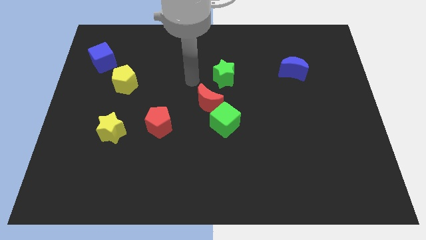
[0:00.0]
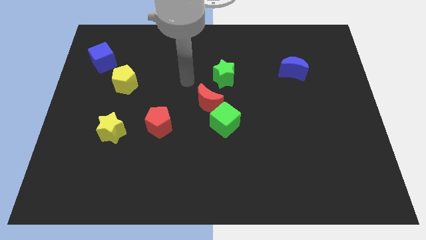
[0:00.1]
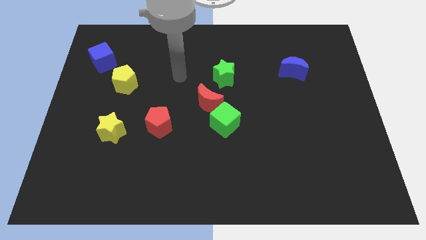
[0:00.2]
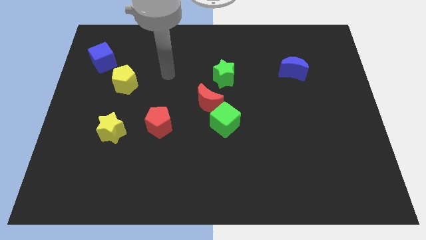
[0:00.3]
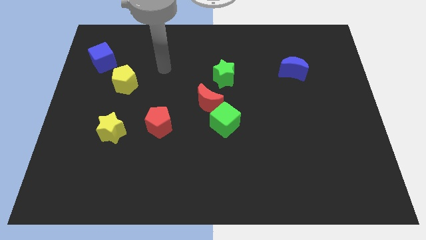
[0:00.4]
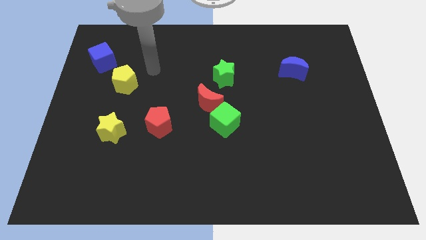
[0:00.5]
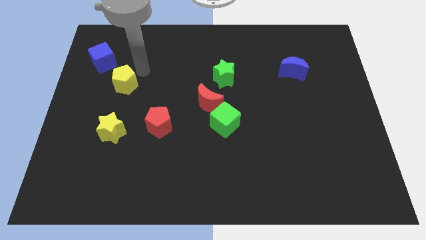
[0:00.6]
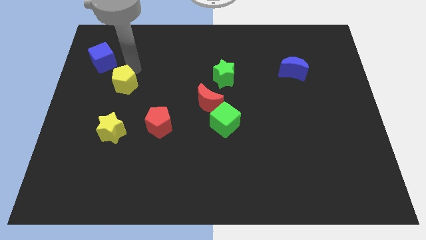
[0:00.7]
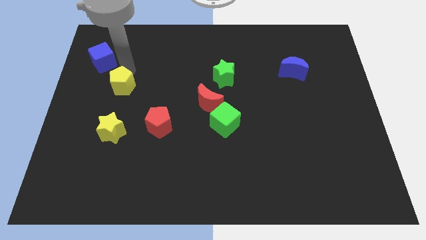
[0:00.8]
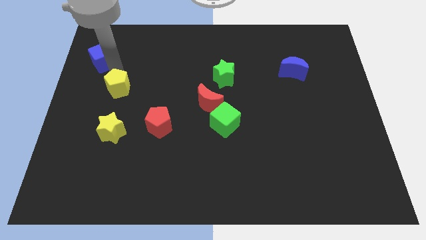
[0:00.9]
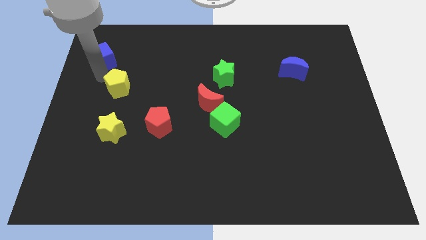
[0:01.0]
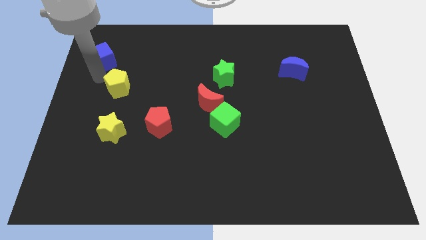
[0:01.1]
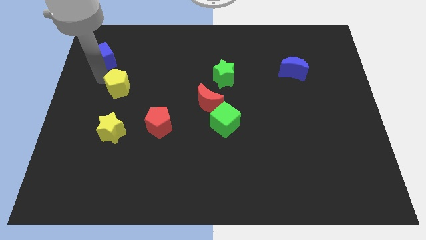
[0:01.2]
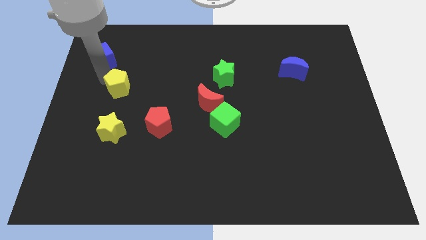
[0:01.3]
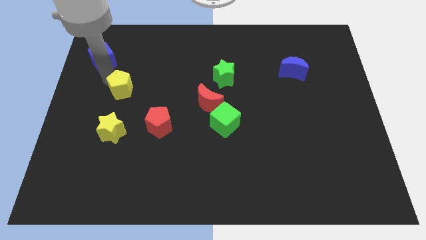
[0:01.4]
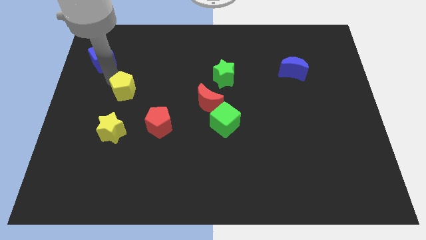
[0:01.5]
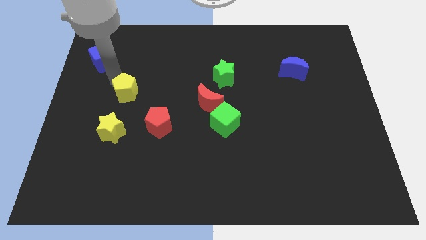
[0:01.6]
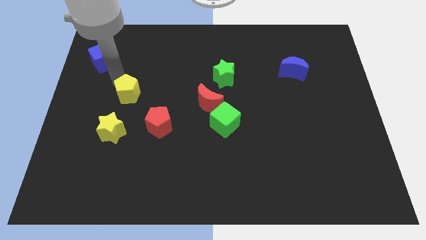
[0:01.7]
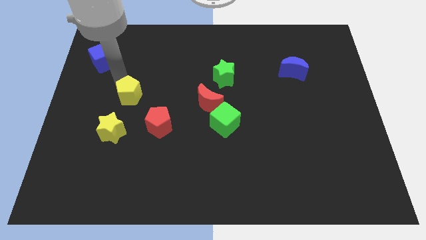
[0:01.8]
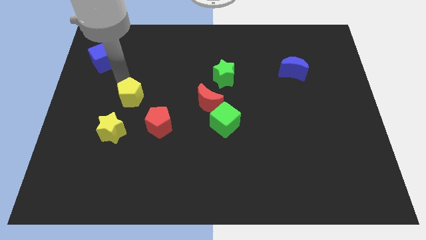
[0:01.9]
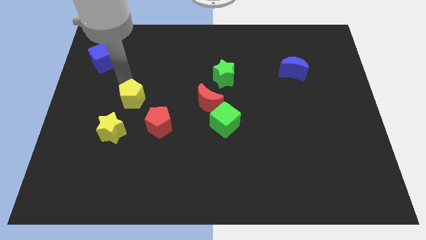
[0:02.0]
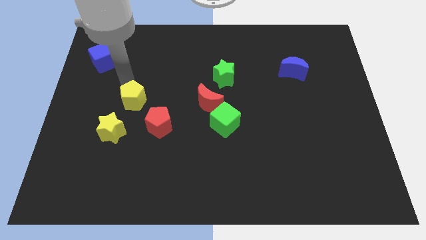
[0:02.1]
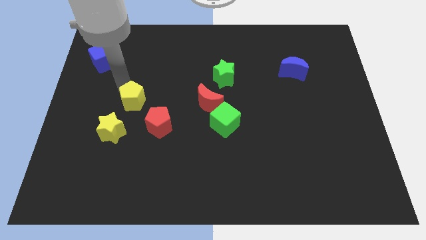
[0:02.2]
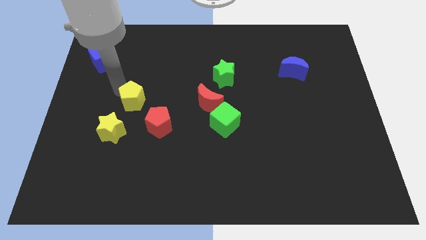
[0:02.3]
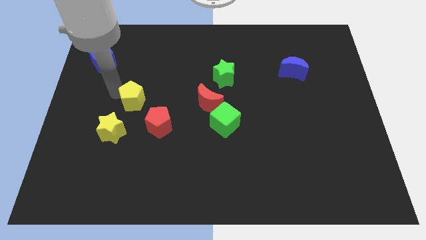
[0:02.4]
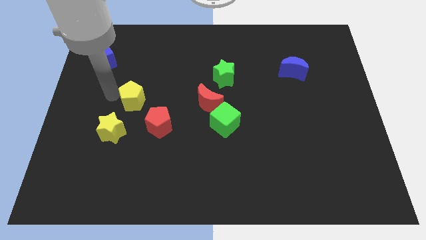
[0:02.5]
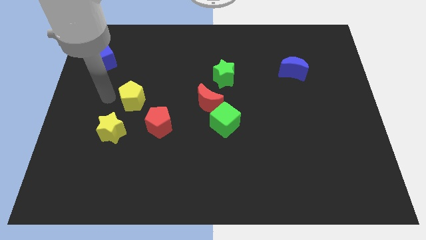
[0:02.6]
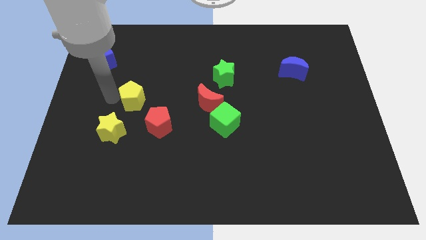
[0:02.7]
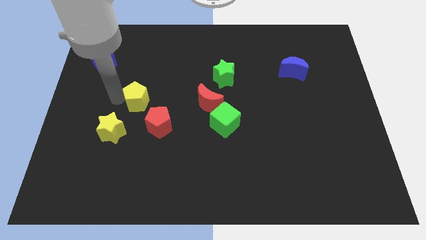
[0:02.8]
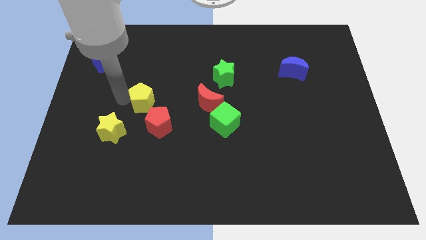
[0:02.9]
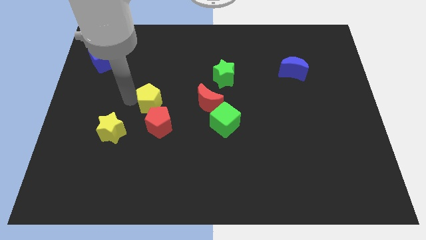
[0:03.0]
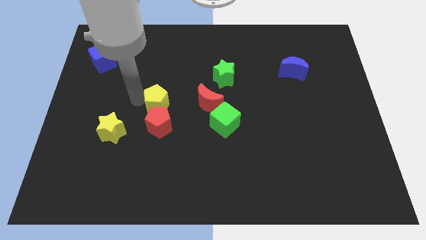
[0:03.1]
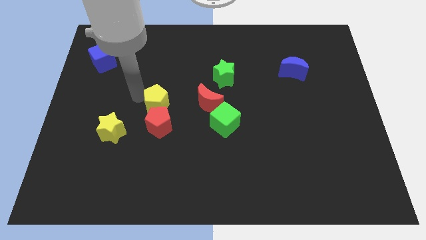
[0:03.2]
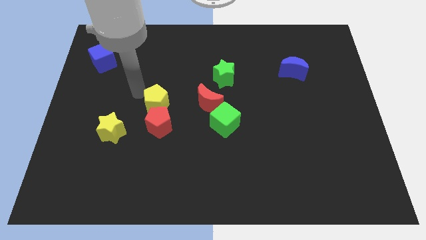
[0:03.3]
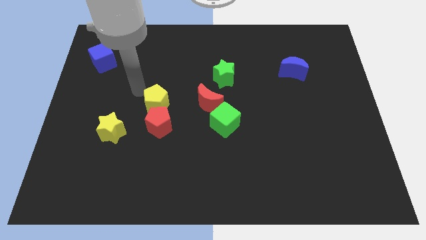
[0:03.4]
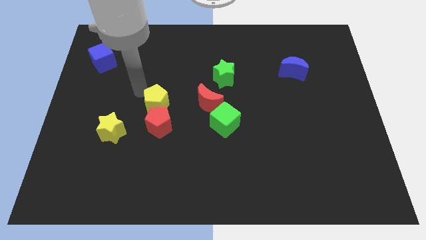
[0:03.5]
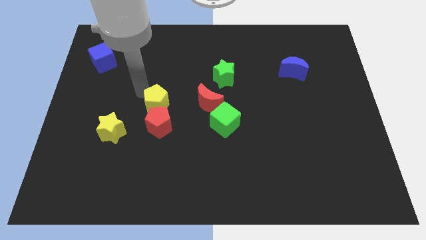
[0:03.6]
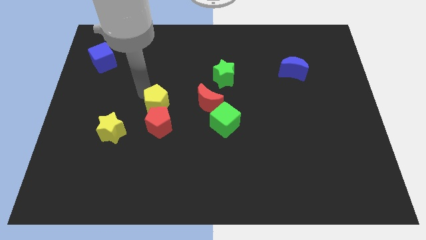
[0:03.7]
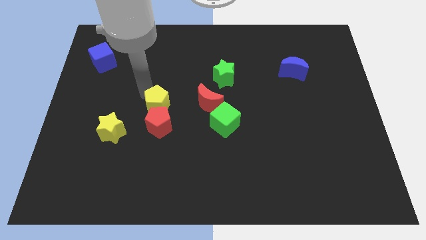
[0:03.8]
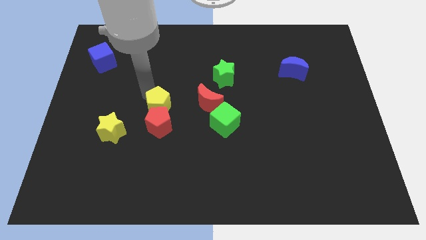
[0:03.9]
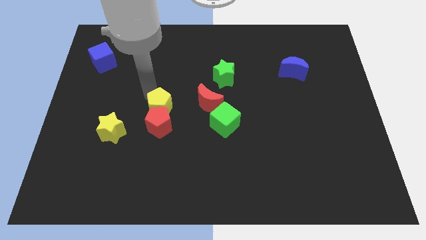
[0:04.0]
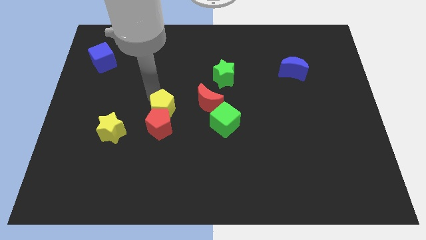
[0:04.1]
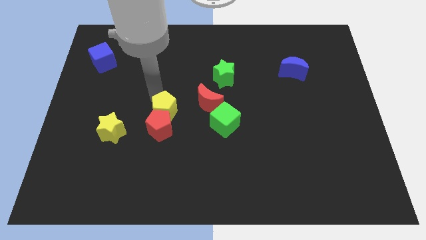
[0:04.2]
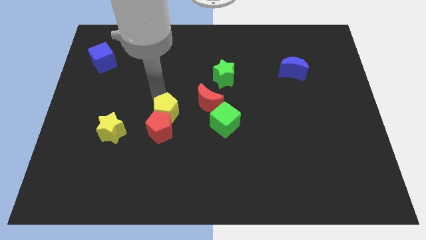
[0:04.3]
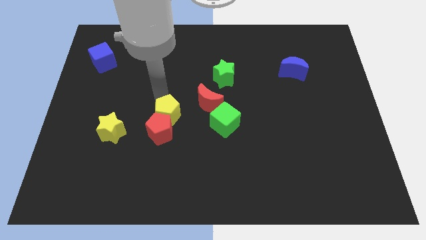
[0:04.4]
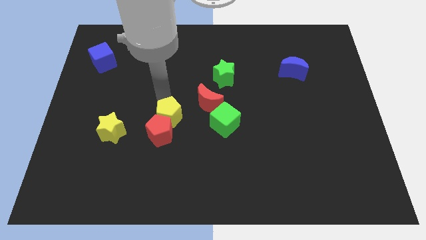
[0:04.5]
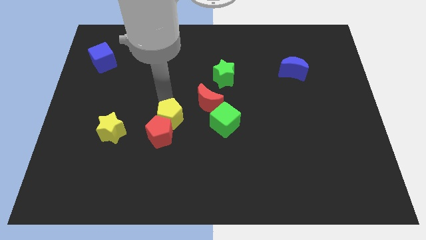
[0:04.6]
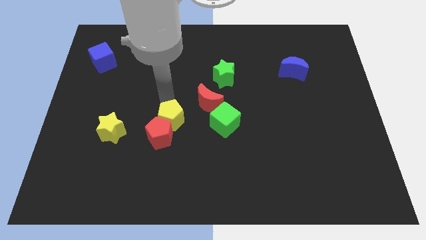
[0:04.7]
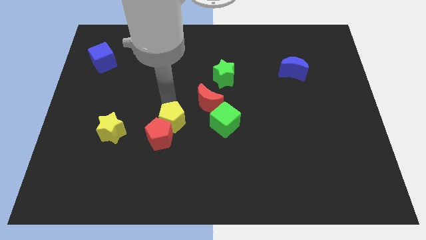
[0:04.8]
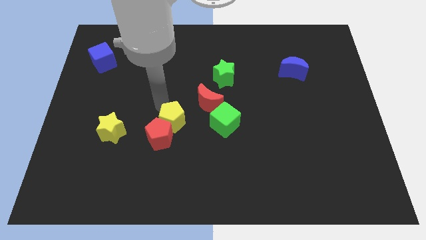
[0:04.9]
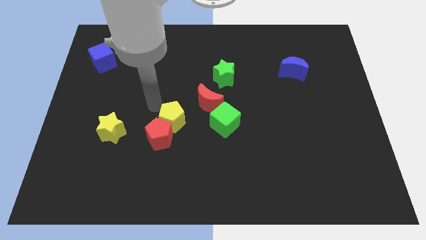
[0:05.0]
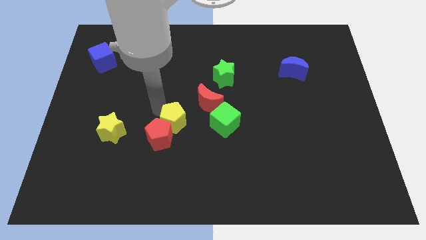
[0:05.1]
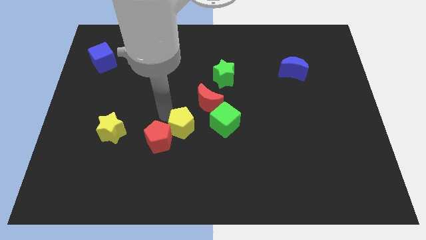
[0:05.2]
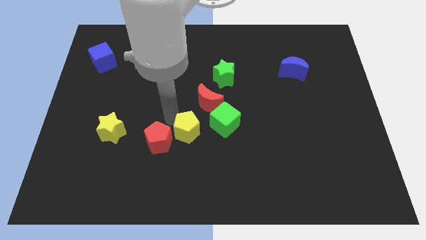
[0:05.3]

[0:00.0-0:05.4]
move the yellow pentagon diagonally down and to the right

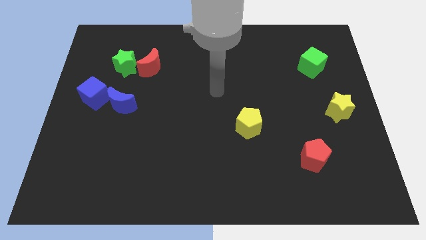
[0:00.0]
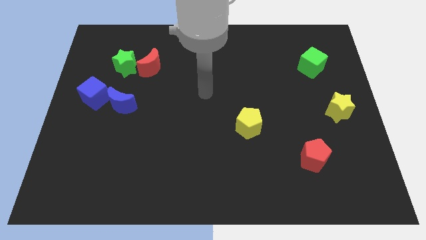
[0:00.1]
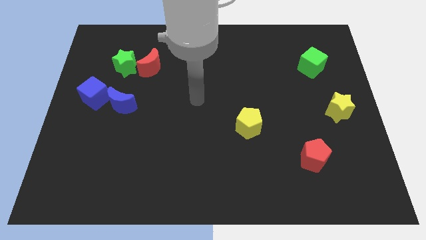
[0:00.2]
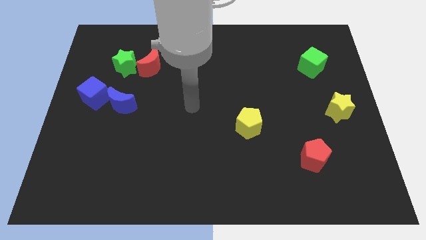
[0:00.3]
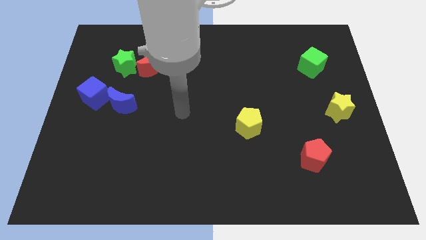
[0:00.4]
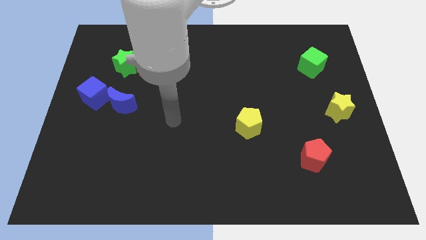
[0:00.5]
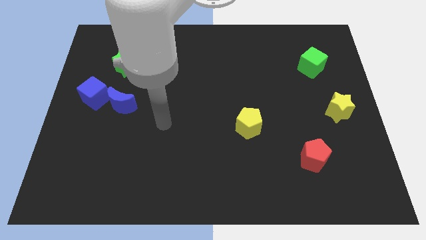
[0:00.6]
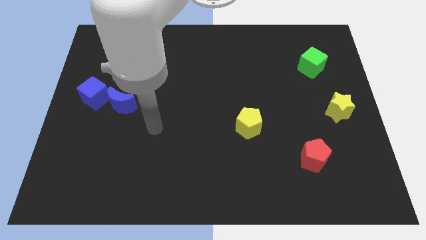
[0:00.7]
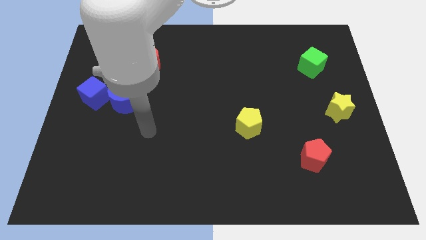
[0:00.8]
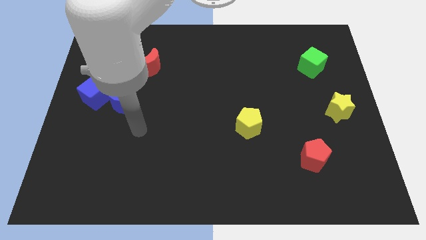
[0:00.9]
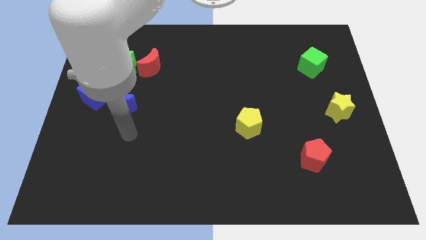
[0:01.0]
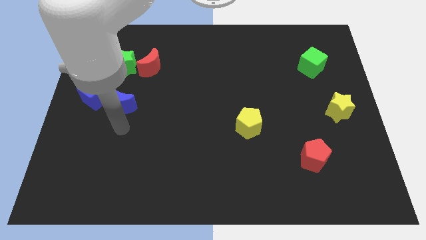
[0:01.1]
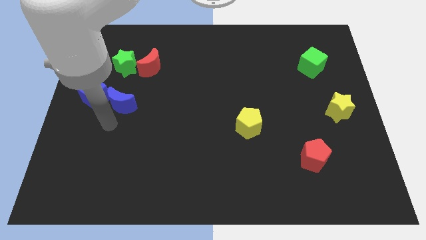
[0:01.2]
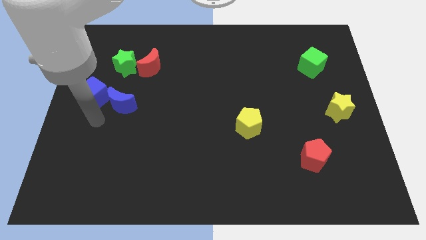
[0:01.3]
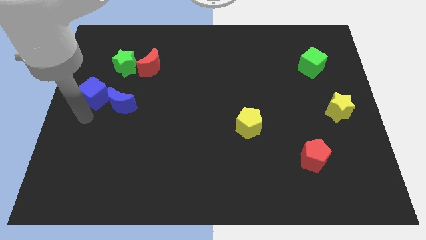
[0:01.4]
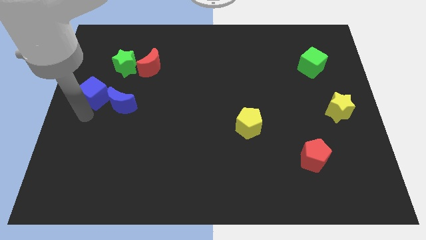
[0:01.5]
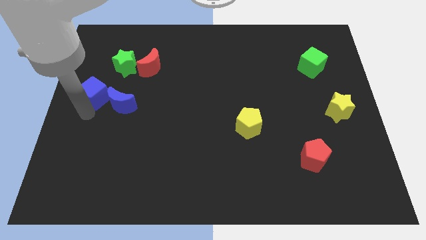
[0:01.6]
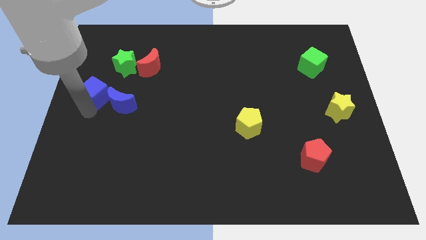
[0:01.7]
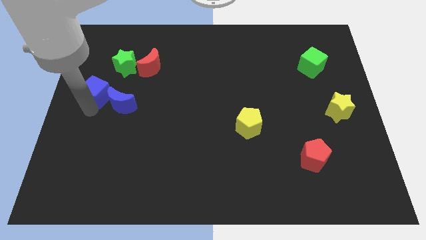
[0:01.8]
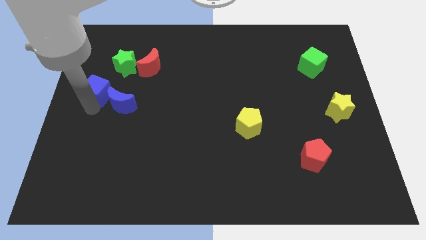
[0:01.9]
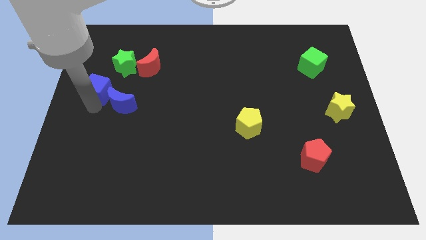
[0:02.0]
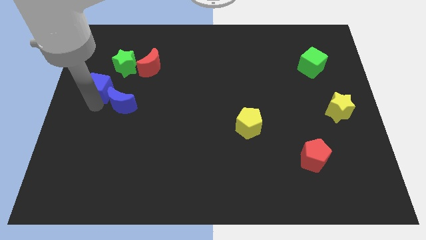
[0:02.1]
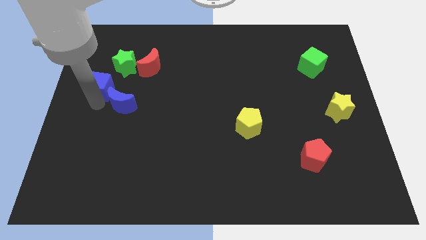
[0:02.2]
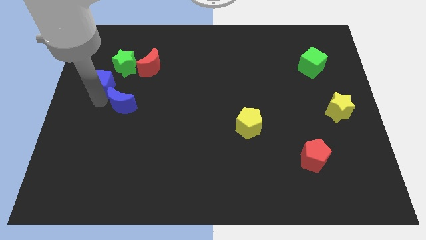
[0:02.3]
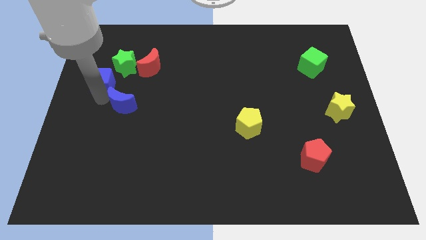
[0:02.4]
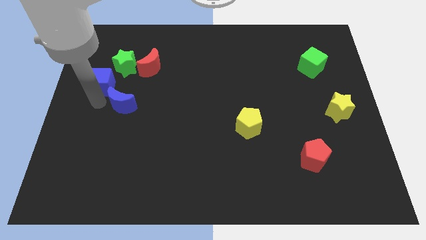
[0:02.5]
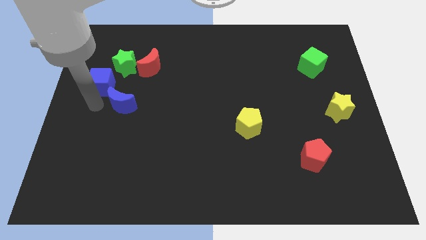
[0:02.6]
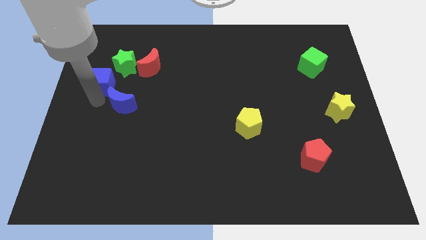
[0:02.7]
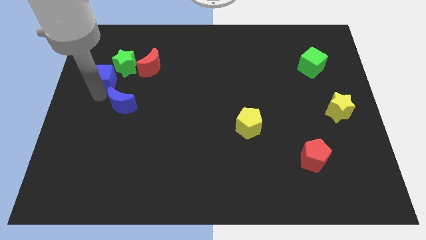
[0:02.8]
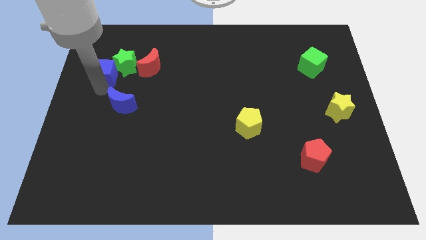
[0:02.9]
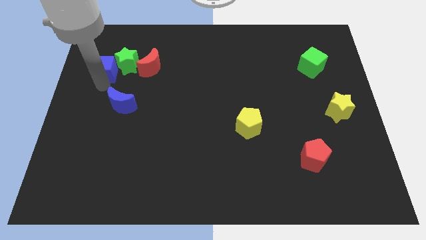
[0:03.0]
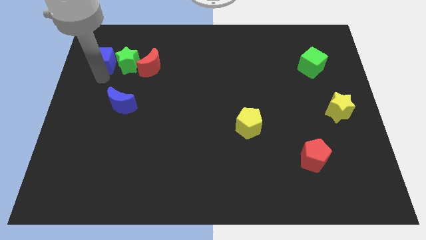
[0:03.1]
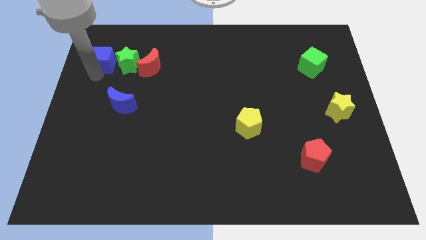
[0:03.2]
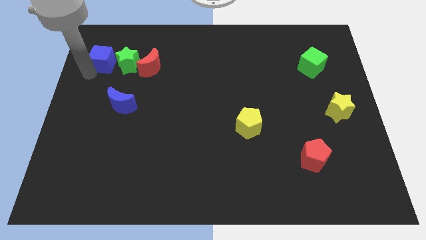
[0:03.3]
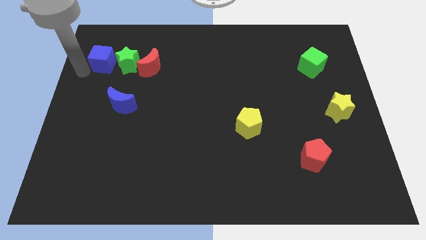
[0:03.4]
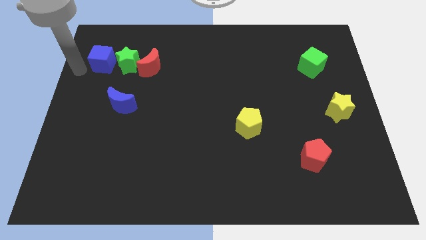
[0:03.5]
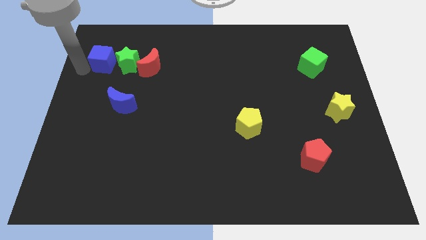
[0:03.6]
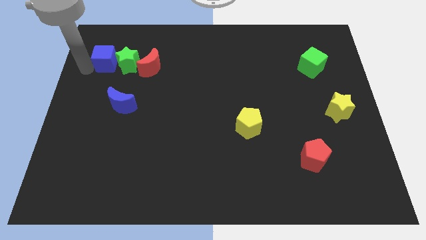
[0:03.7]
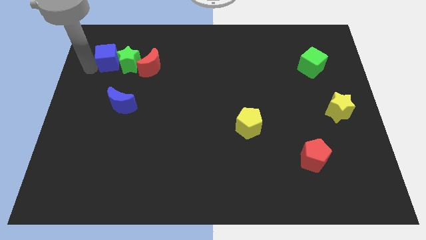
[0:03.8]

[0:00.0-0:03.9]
slightly push the blue cube diagonally up and to the right
